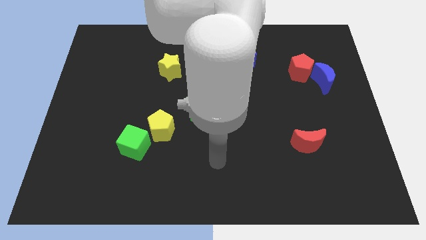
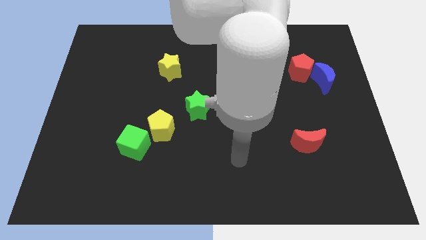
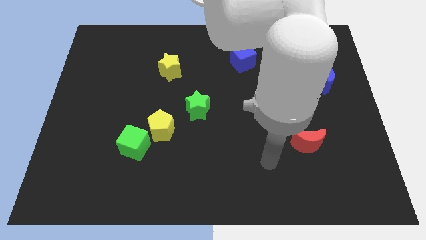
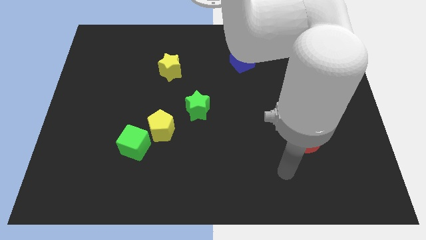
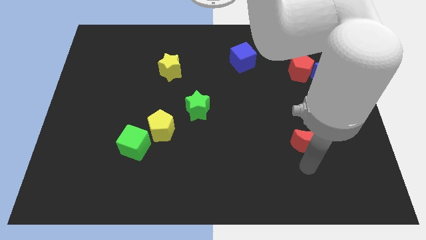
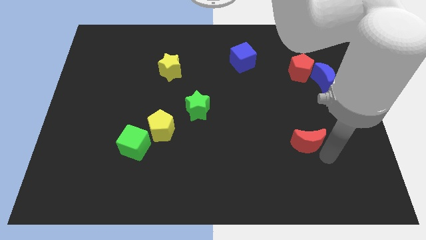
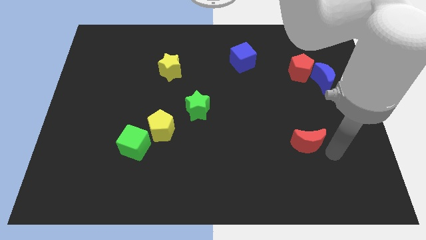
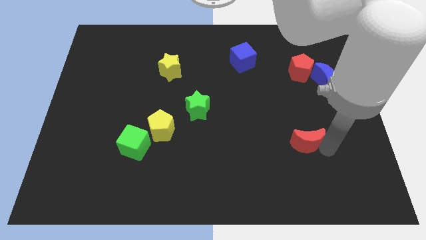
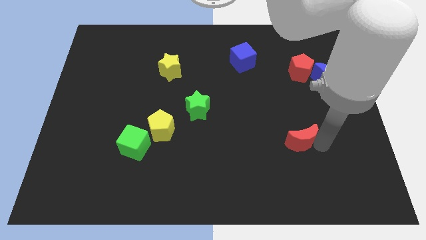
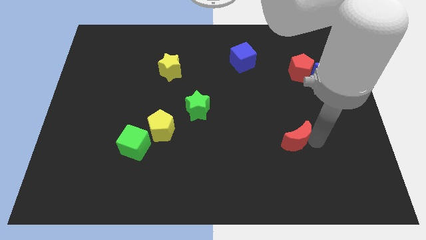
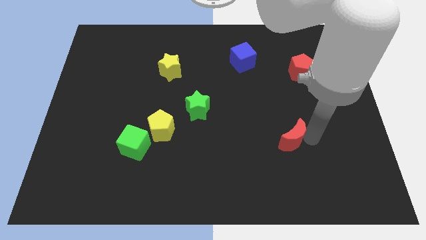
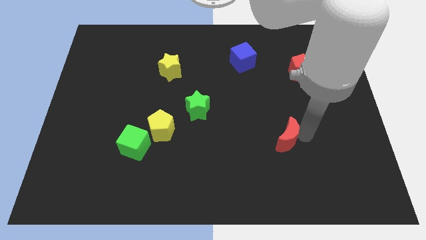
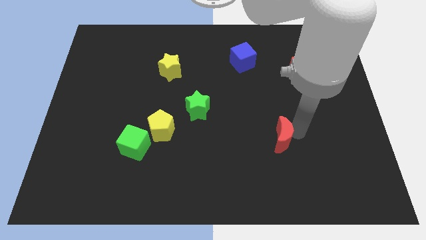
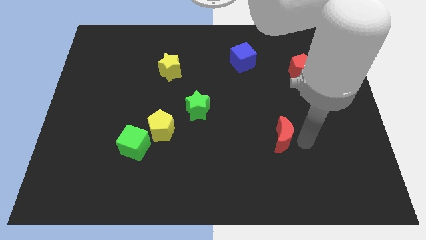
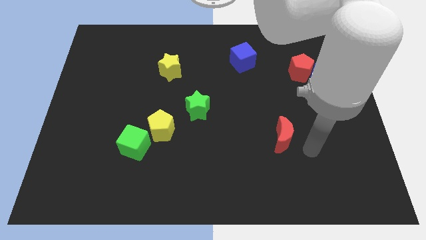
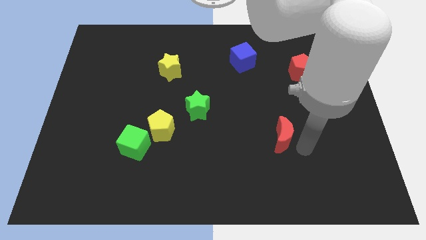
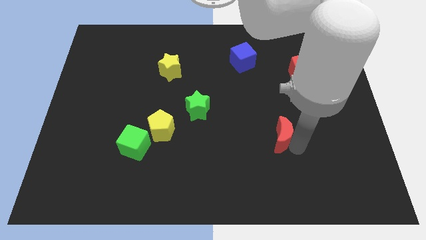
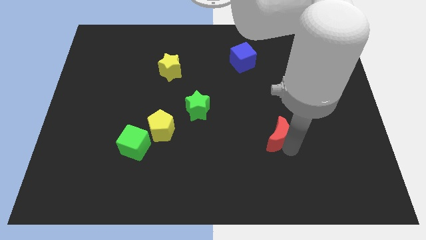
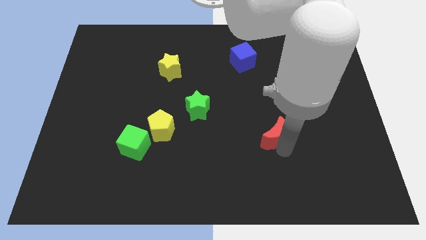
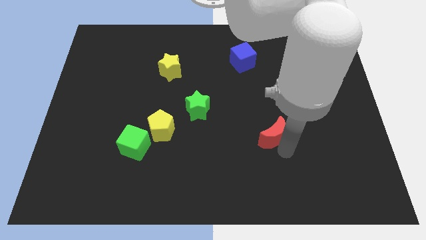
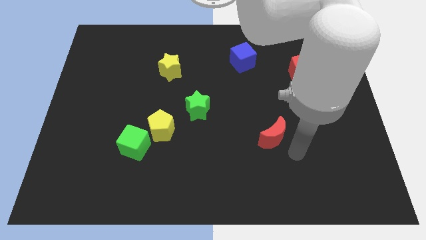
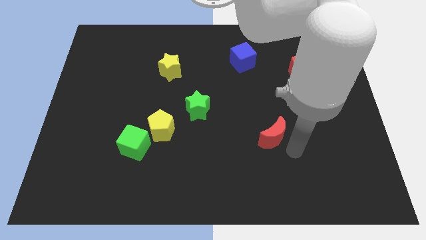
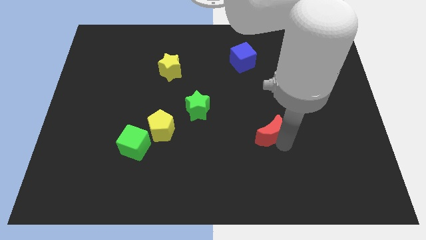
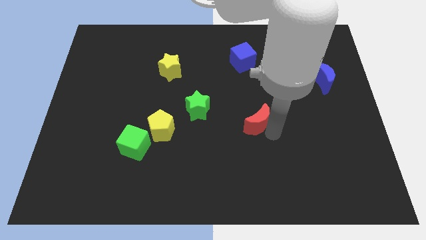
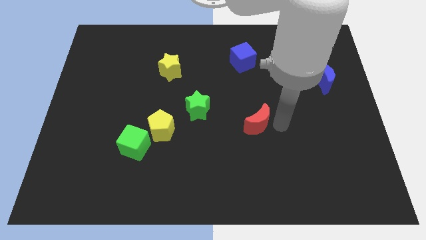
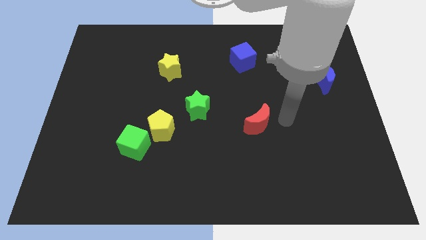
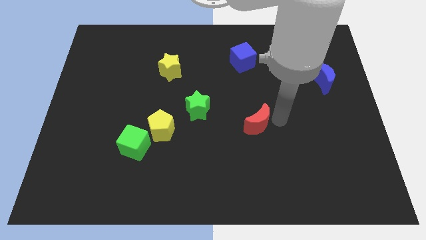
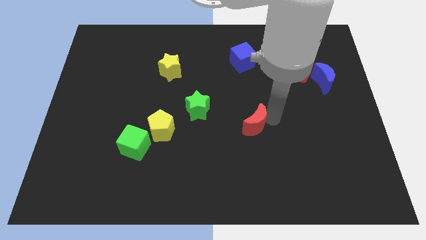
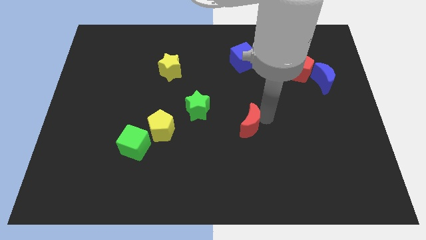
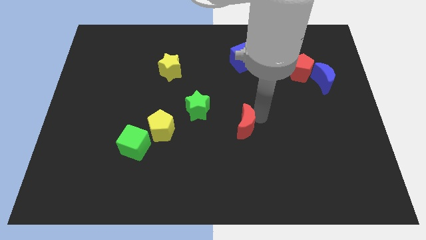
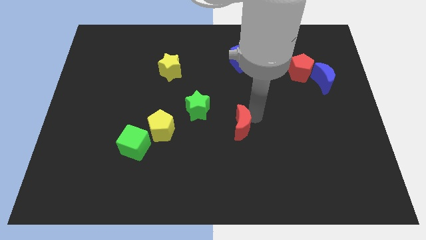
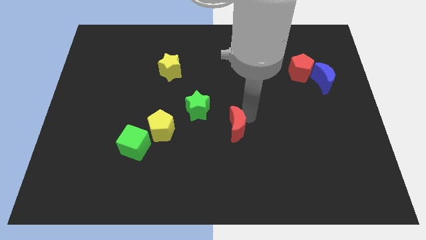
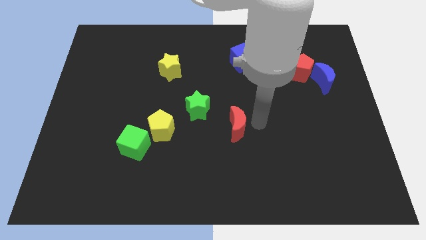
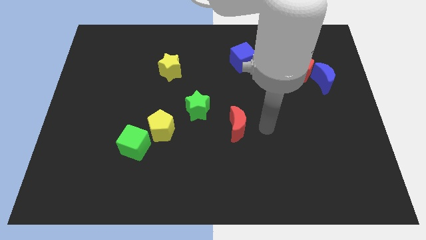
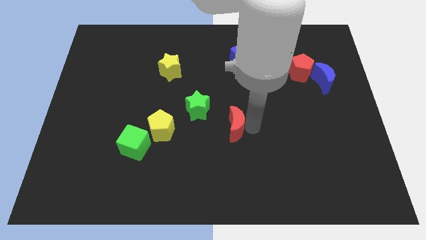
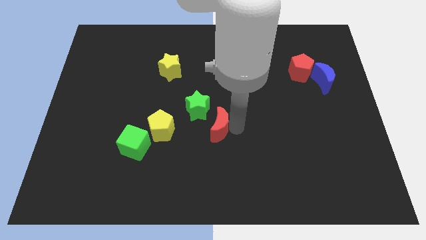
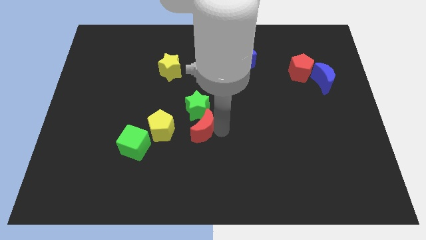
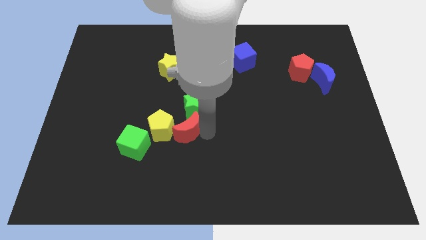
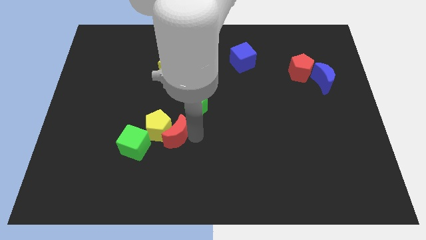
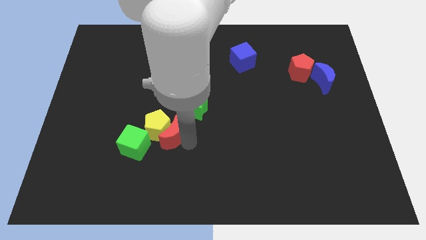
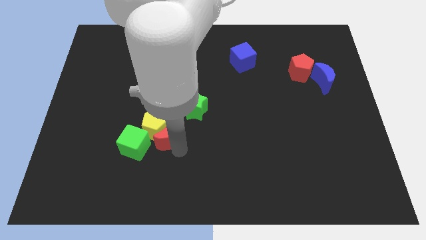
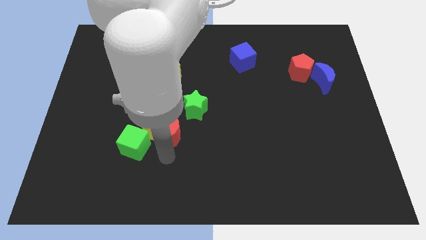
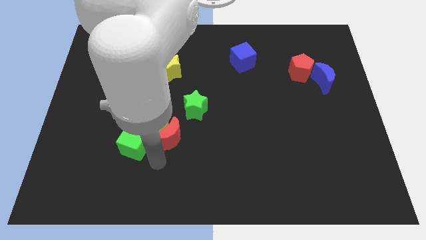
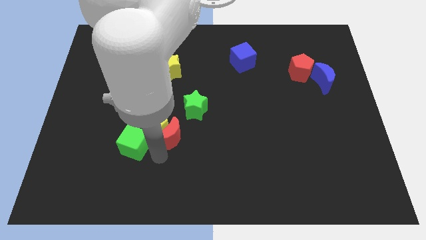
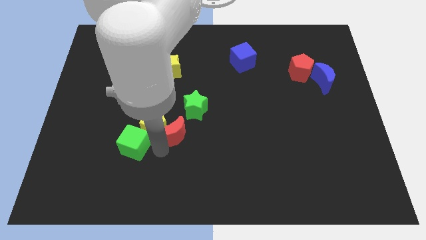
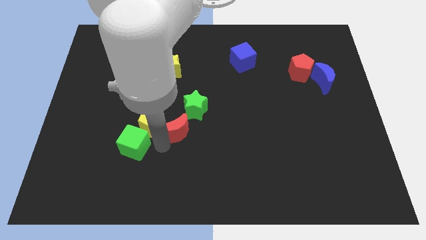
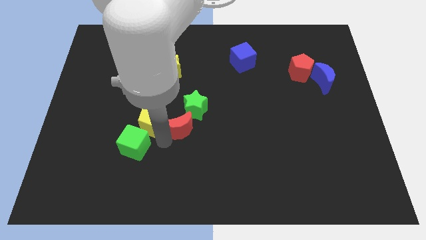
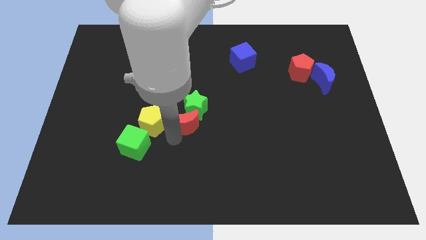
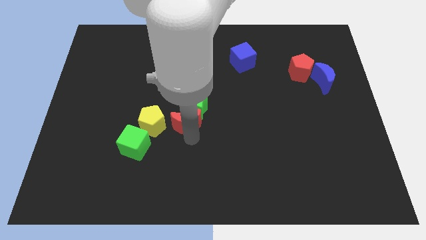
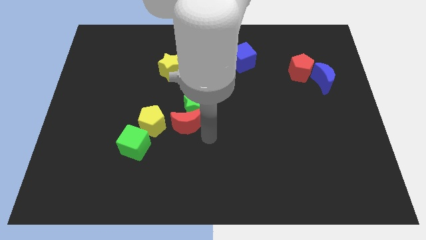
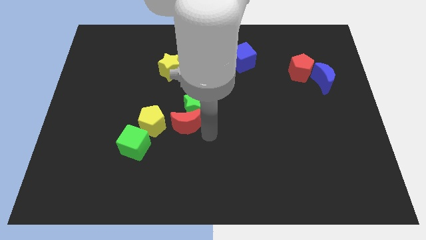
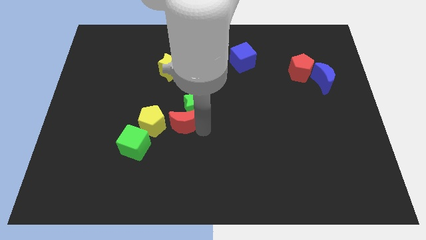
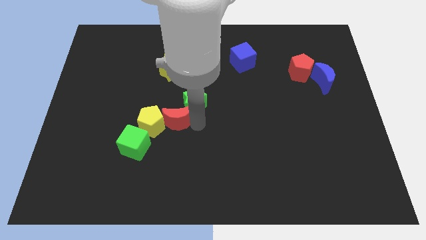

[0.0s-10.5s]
put the red moon to the left side of the green star

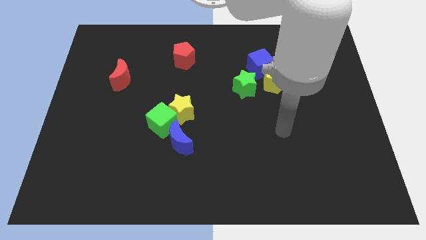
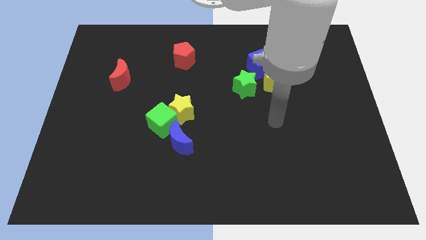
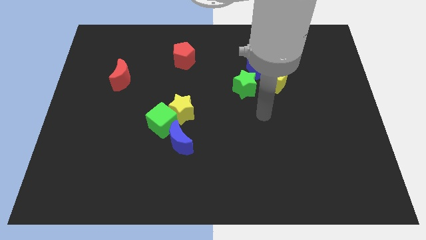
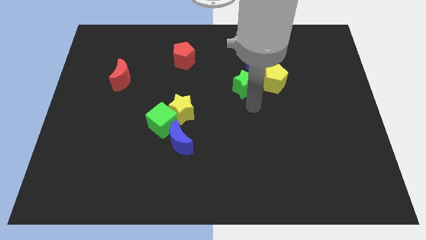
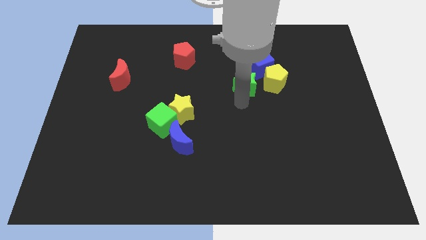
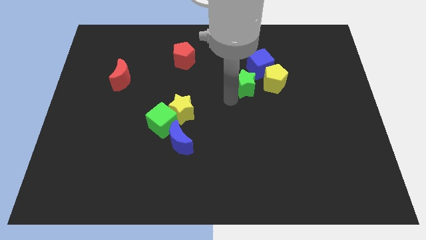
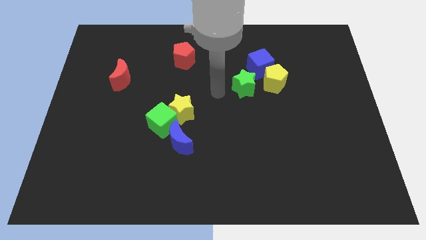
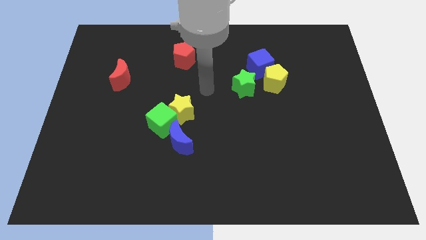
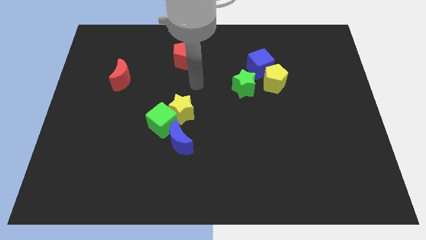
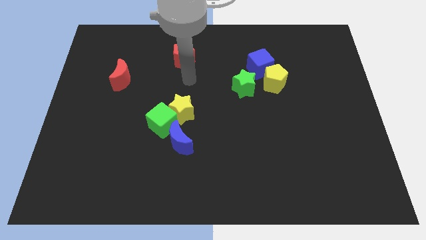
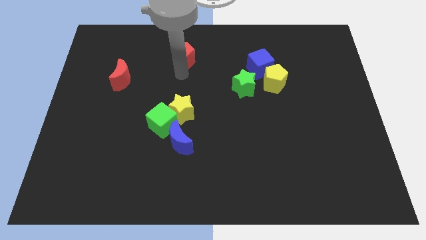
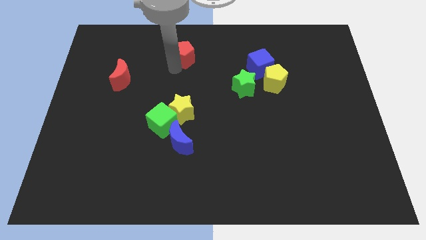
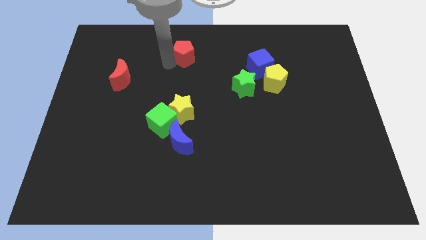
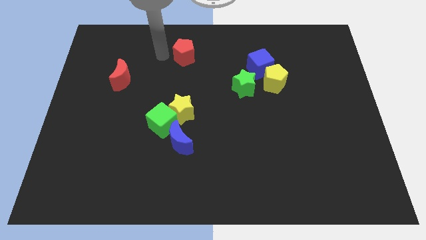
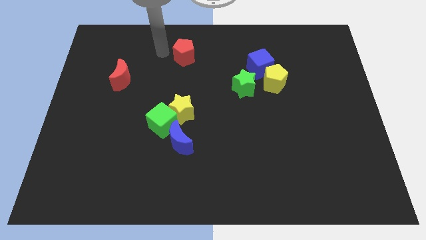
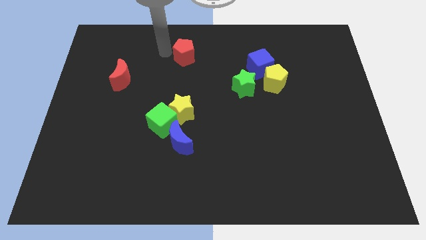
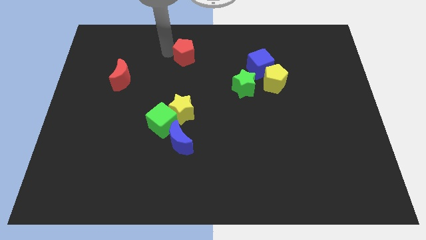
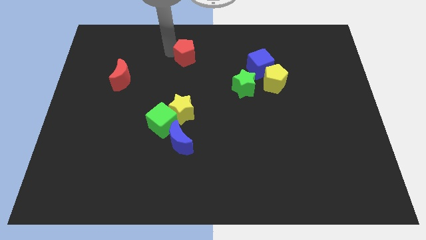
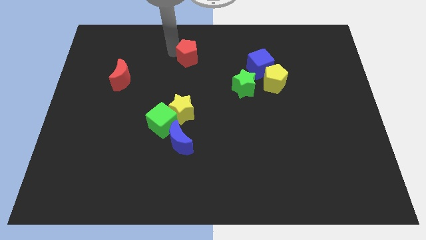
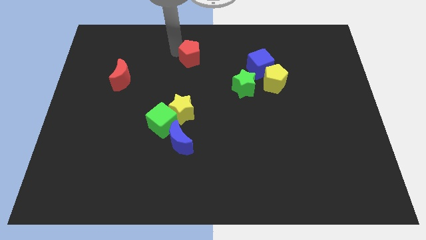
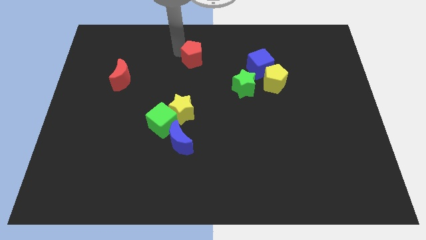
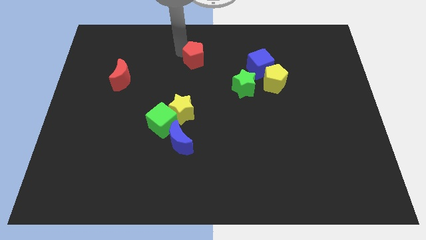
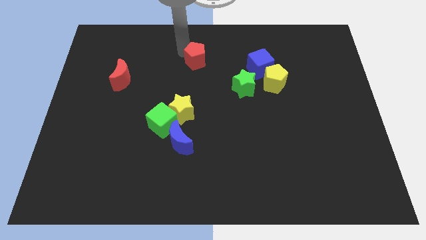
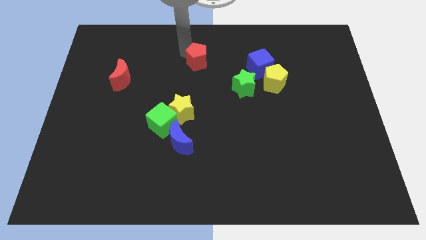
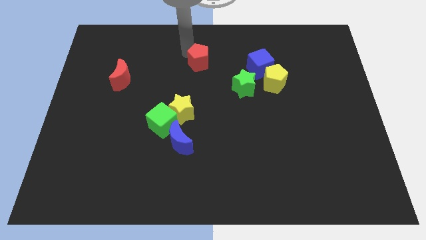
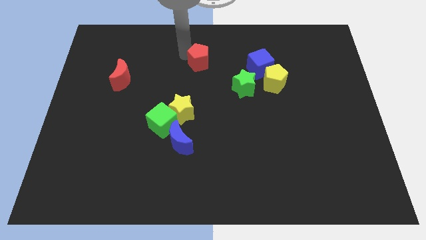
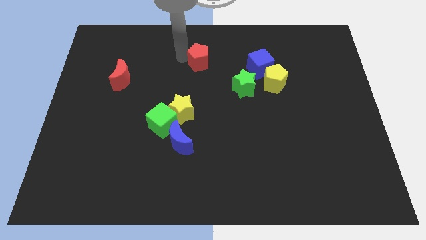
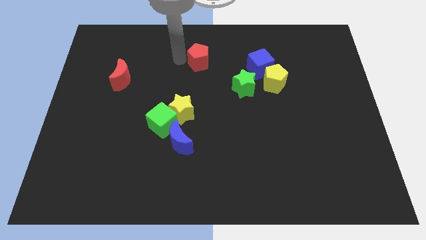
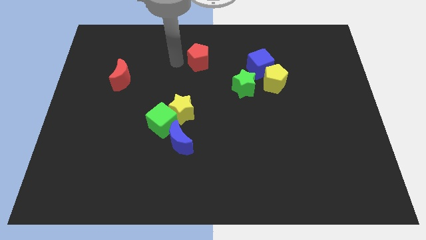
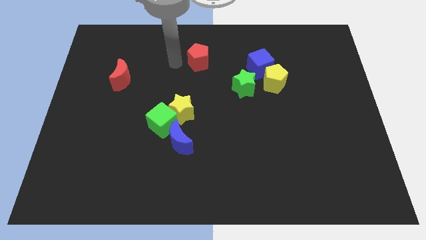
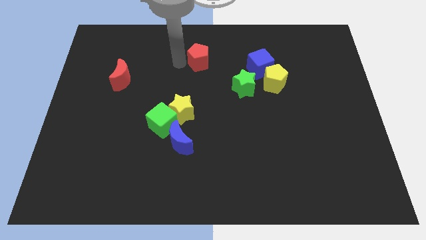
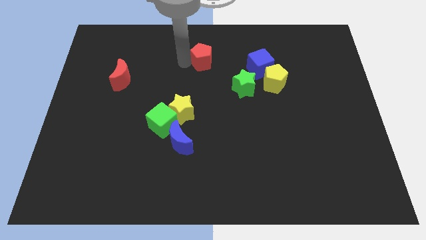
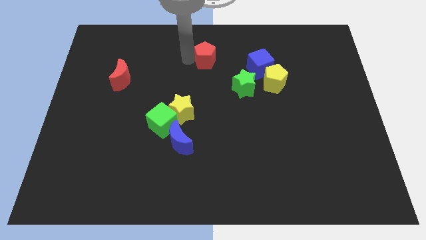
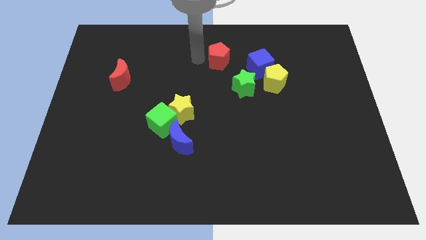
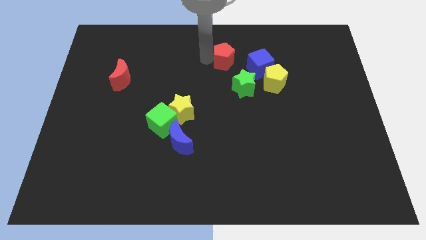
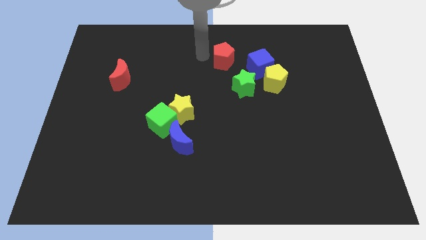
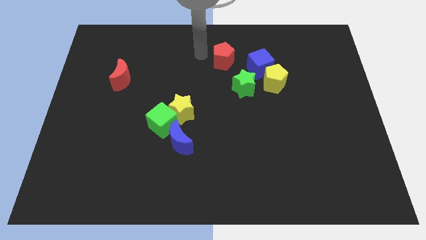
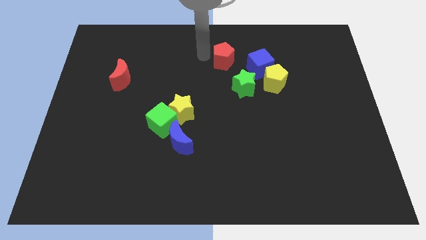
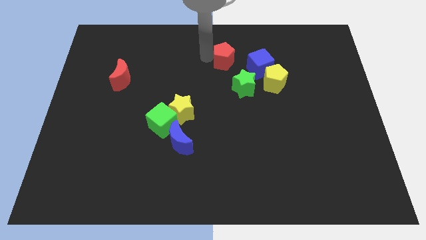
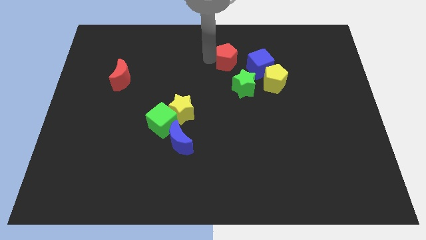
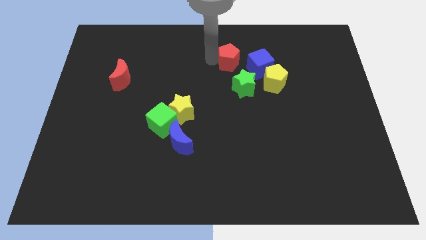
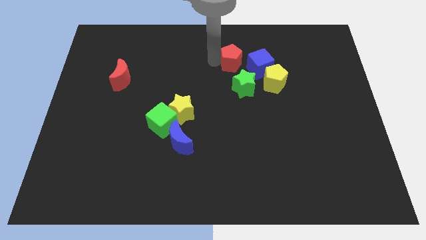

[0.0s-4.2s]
slide the red pentagon to the top left side of the yellow pentagon
